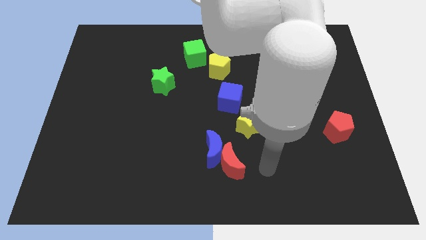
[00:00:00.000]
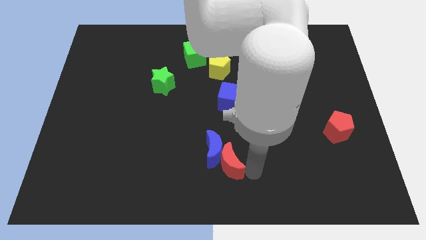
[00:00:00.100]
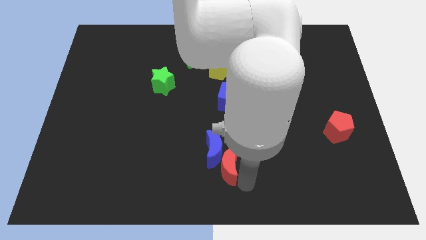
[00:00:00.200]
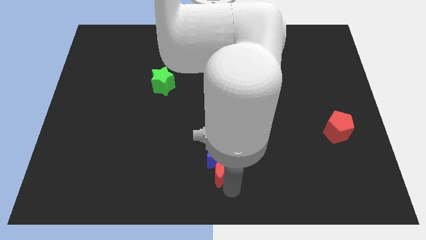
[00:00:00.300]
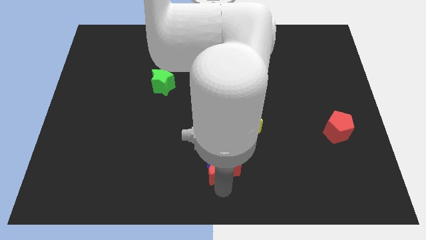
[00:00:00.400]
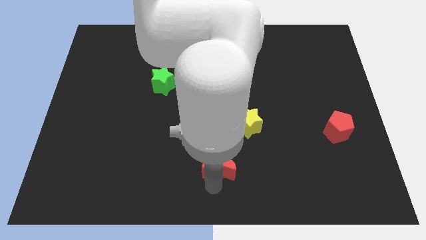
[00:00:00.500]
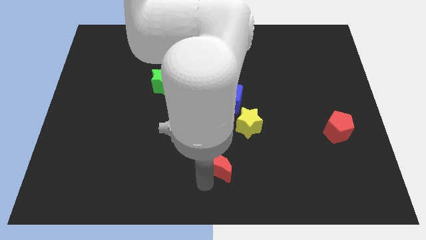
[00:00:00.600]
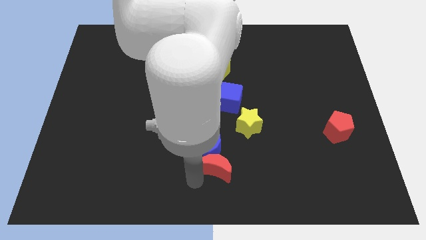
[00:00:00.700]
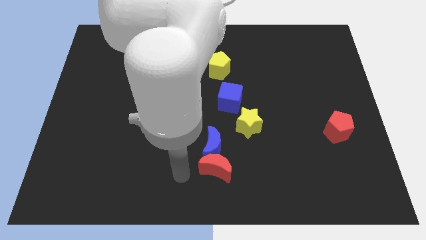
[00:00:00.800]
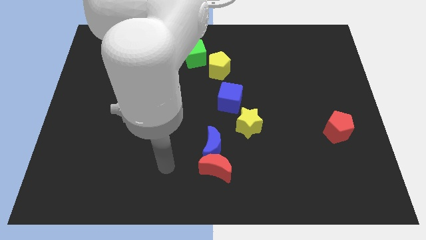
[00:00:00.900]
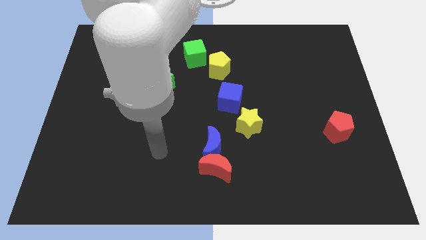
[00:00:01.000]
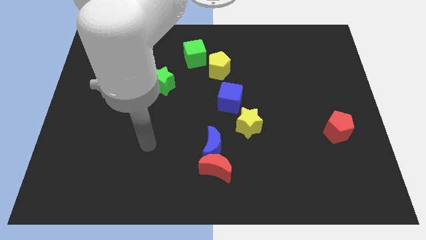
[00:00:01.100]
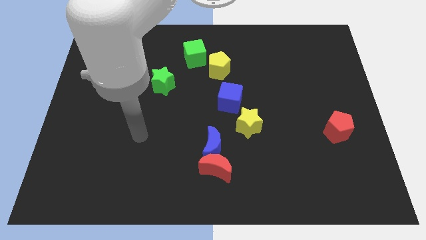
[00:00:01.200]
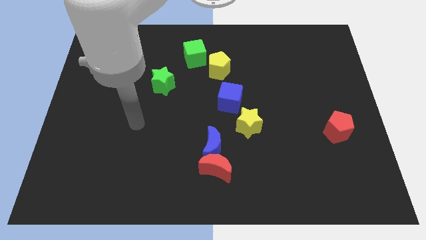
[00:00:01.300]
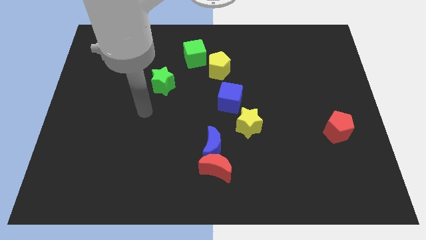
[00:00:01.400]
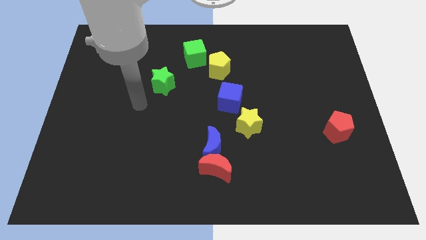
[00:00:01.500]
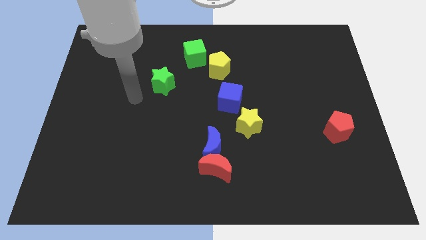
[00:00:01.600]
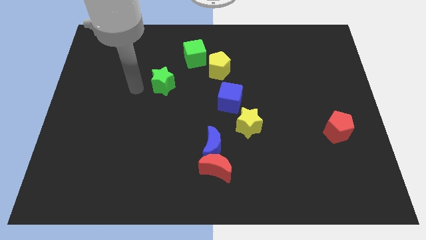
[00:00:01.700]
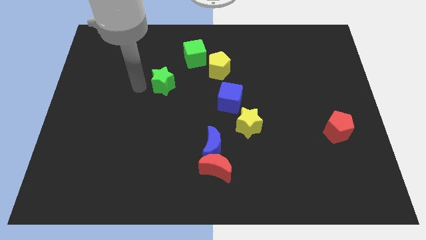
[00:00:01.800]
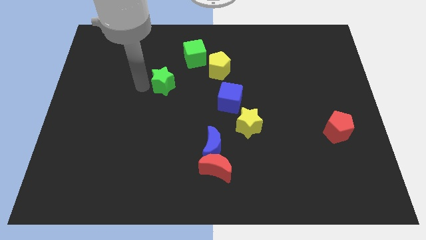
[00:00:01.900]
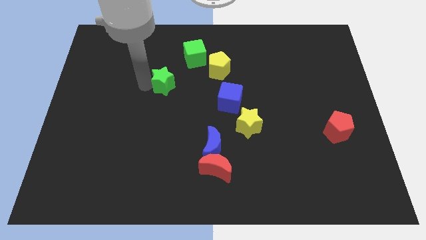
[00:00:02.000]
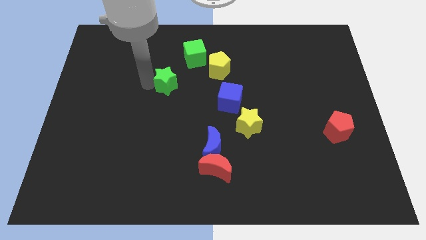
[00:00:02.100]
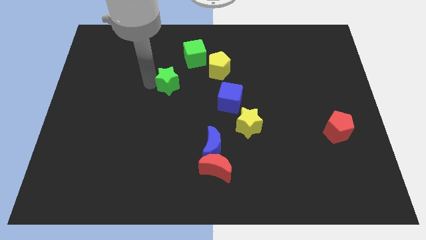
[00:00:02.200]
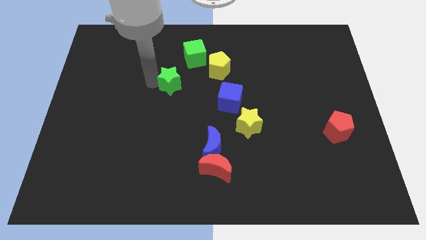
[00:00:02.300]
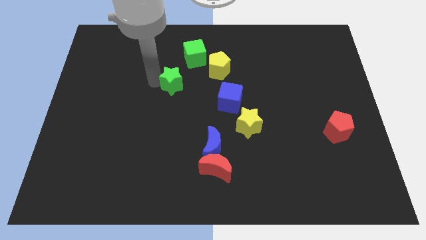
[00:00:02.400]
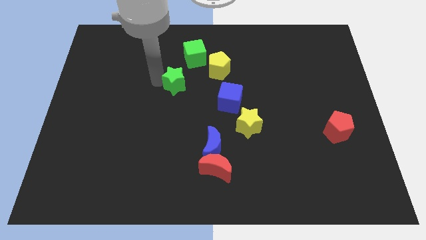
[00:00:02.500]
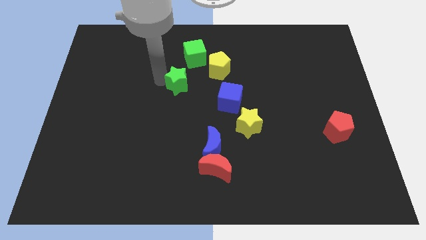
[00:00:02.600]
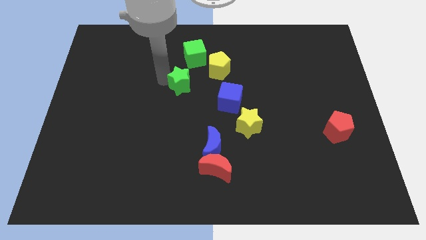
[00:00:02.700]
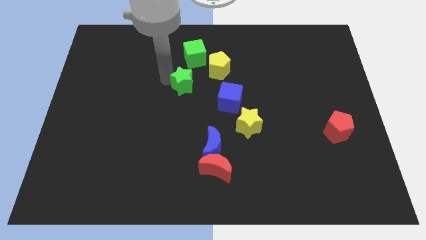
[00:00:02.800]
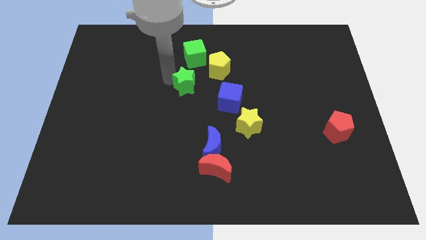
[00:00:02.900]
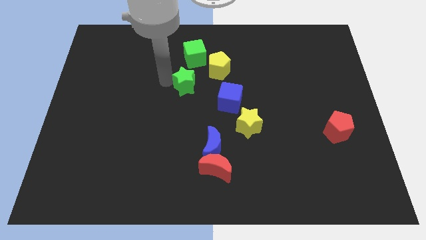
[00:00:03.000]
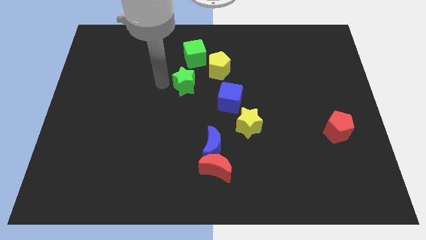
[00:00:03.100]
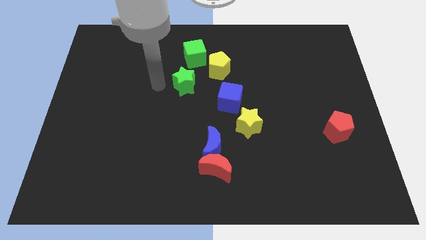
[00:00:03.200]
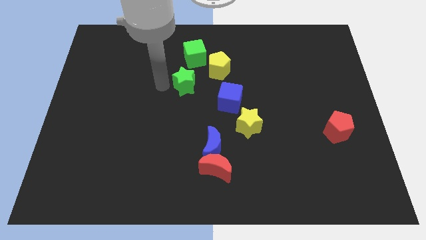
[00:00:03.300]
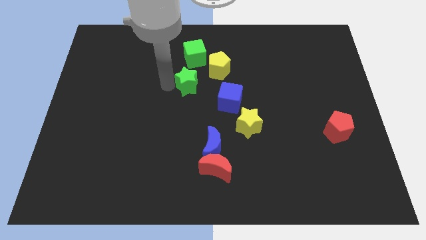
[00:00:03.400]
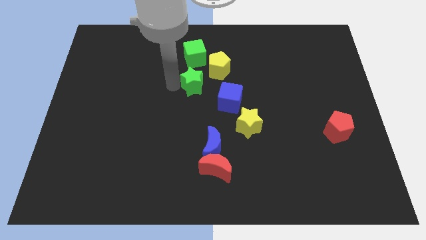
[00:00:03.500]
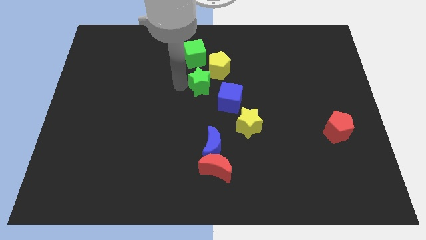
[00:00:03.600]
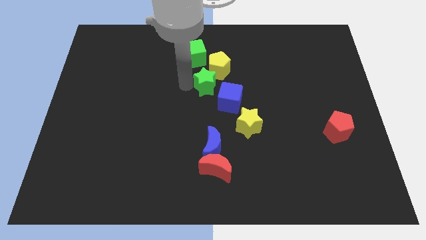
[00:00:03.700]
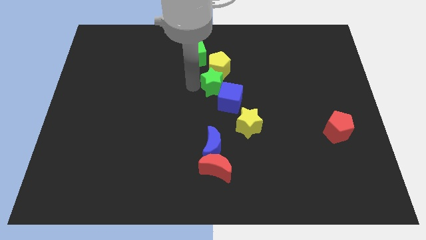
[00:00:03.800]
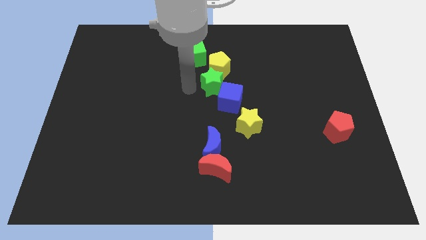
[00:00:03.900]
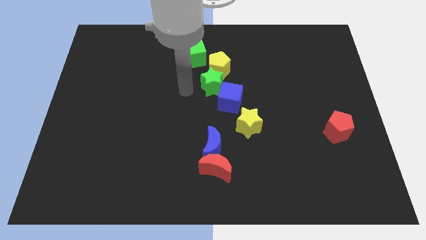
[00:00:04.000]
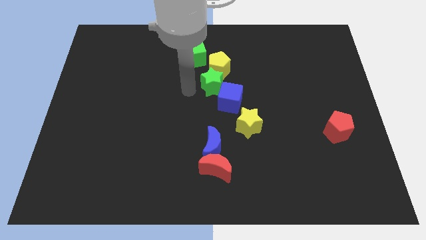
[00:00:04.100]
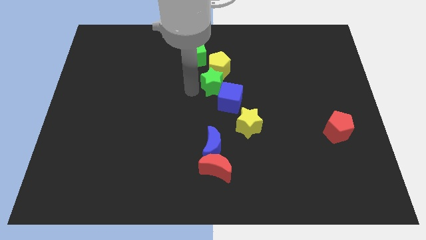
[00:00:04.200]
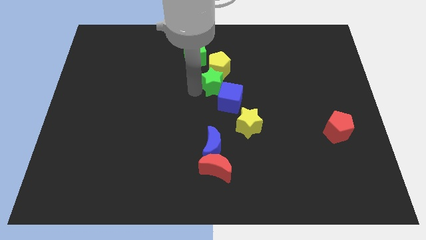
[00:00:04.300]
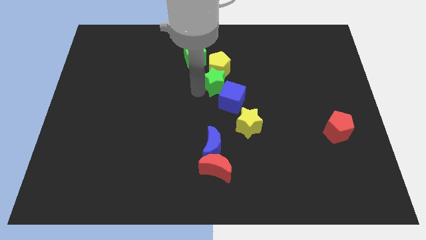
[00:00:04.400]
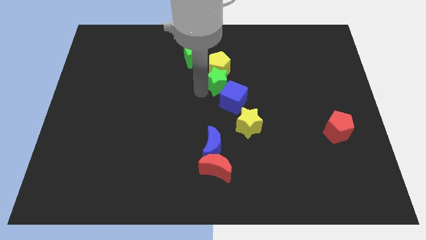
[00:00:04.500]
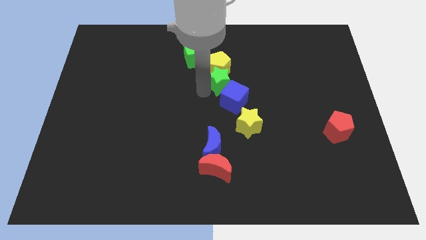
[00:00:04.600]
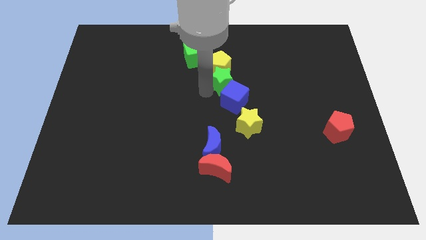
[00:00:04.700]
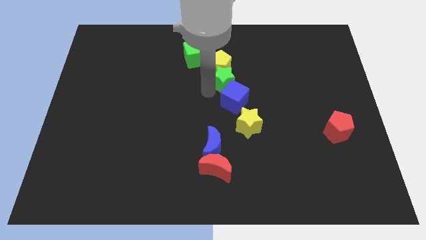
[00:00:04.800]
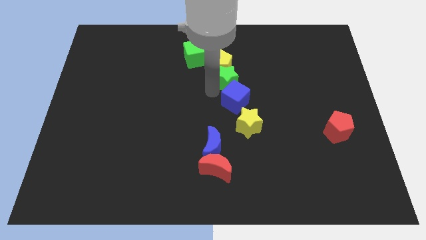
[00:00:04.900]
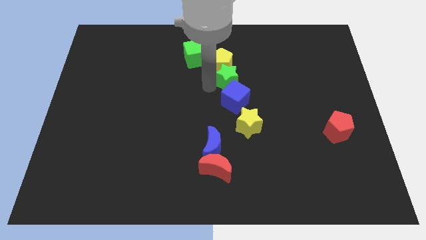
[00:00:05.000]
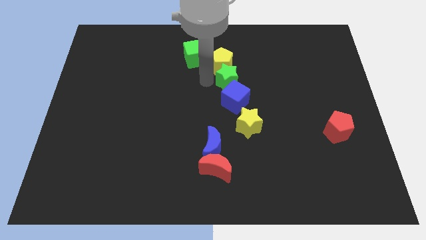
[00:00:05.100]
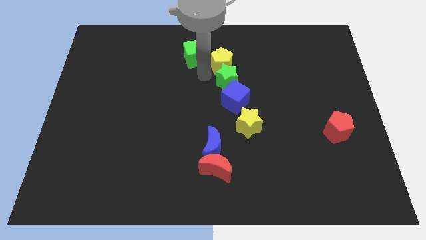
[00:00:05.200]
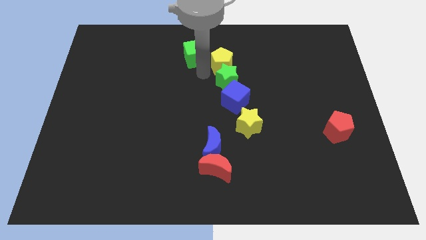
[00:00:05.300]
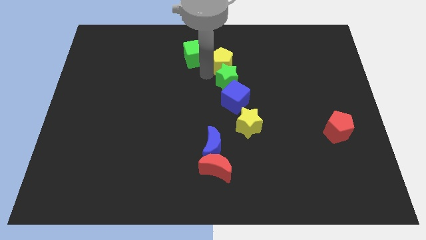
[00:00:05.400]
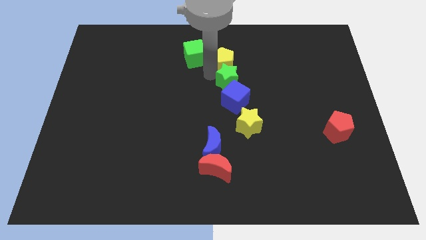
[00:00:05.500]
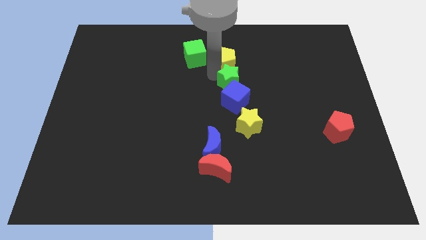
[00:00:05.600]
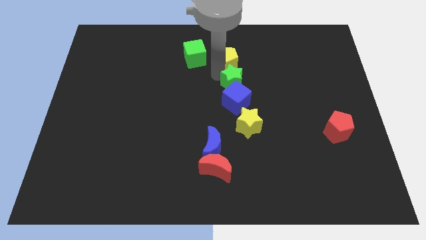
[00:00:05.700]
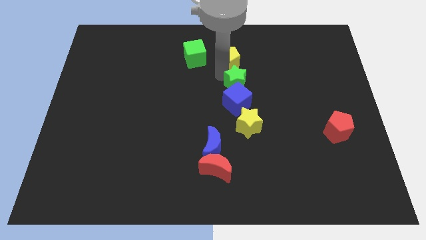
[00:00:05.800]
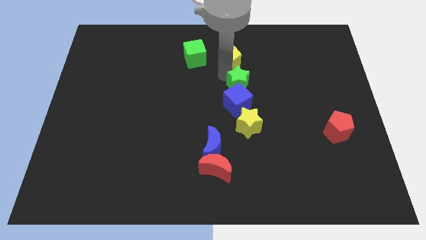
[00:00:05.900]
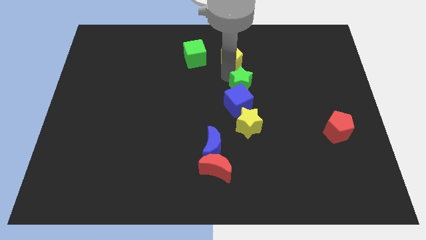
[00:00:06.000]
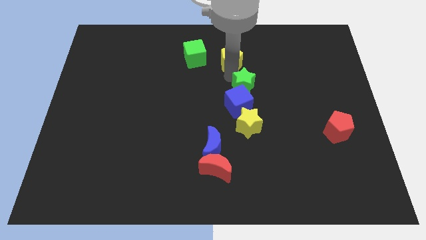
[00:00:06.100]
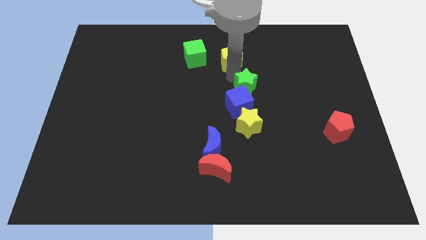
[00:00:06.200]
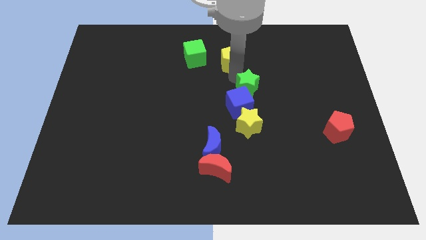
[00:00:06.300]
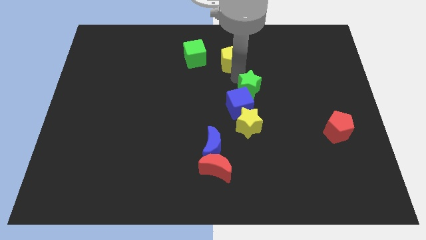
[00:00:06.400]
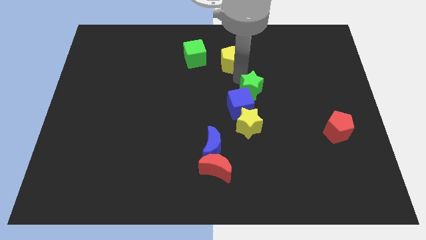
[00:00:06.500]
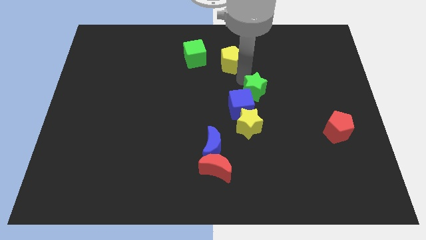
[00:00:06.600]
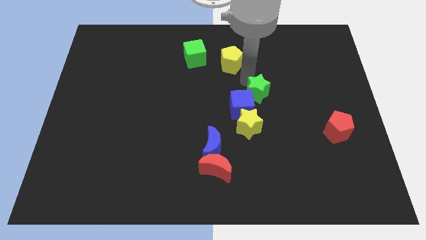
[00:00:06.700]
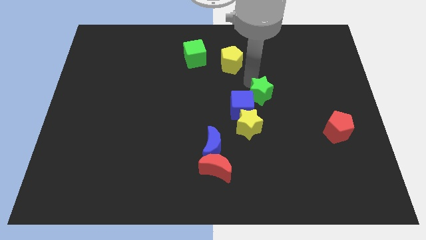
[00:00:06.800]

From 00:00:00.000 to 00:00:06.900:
push the green star right of the blue cube

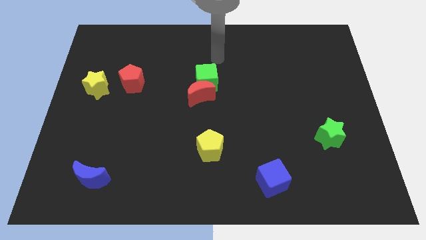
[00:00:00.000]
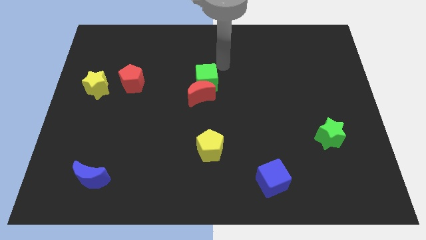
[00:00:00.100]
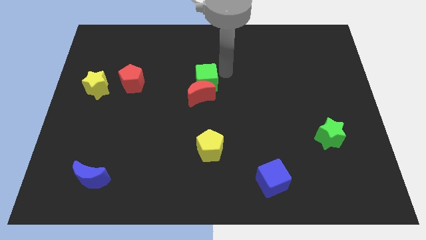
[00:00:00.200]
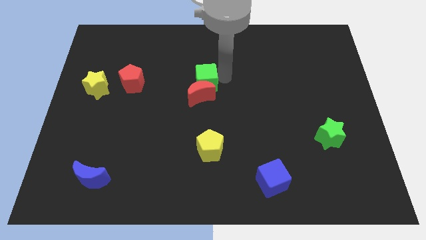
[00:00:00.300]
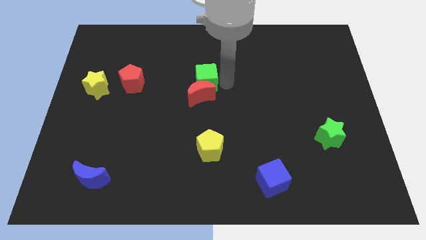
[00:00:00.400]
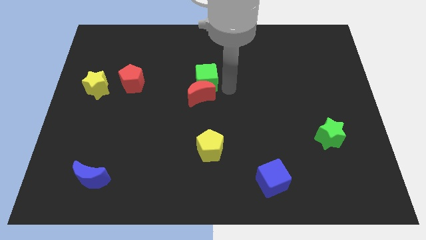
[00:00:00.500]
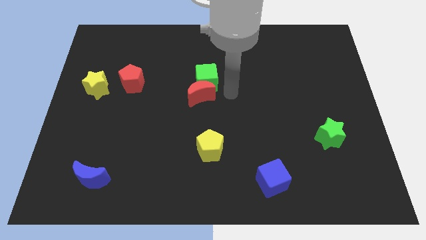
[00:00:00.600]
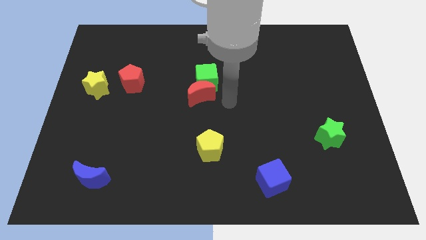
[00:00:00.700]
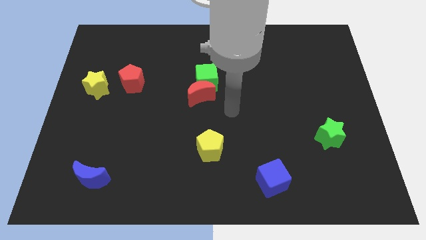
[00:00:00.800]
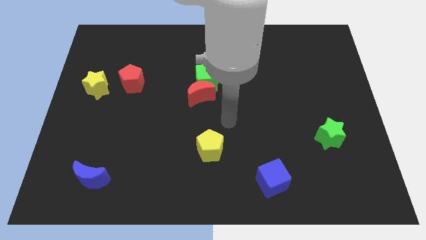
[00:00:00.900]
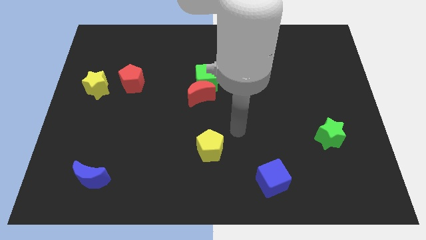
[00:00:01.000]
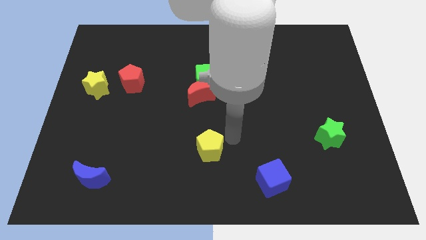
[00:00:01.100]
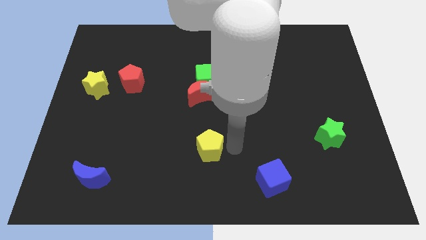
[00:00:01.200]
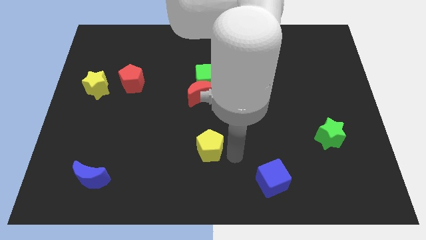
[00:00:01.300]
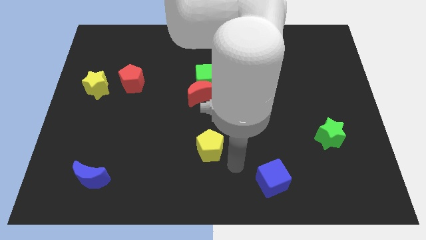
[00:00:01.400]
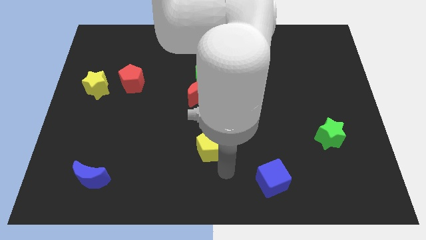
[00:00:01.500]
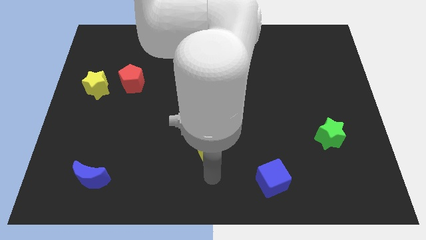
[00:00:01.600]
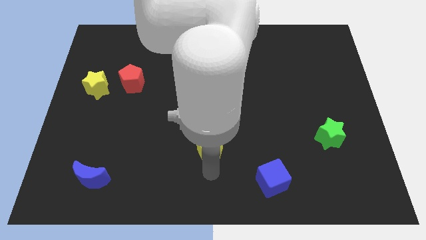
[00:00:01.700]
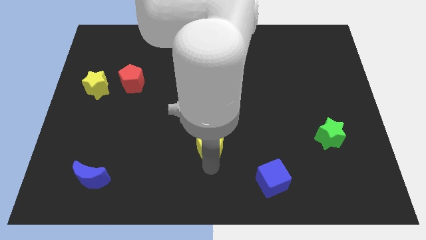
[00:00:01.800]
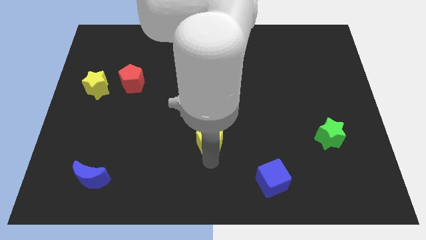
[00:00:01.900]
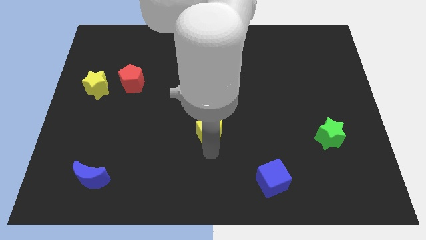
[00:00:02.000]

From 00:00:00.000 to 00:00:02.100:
slide the yellow pentagon below the green cube
